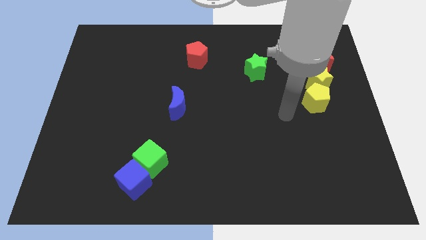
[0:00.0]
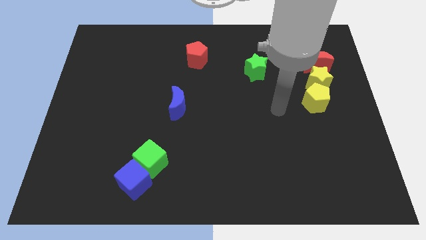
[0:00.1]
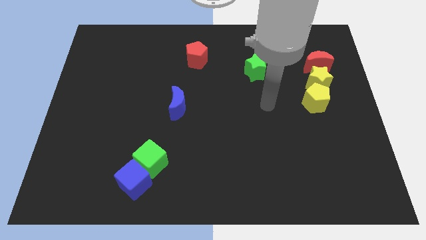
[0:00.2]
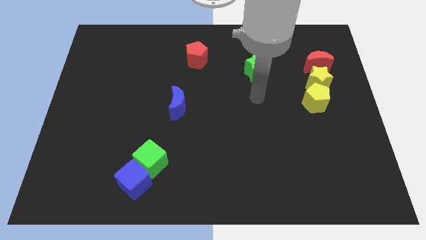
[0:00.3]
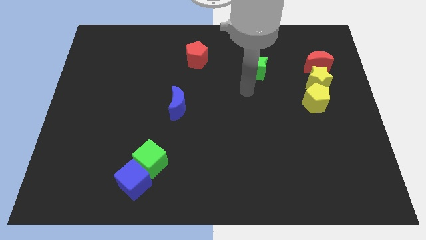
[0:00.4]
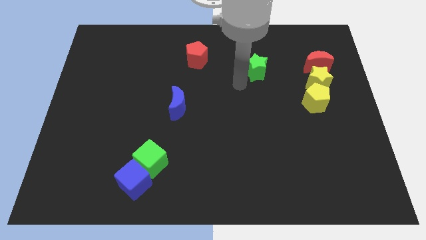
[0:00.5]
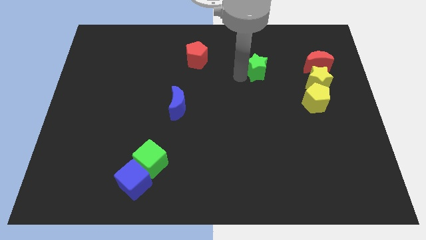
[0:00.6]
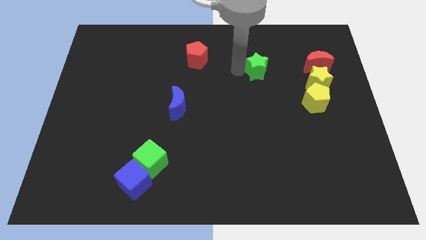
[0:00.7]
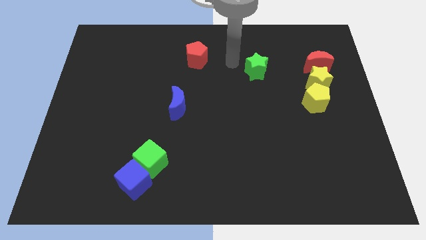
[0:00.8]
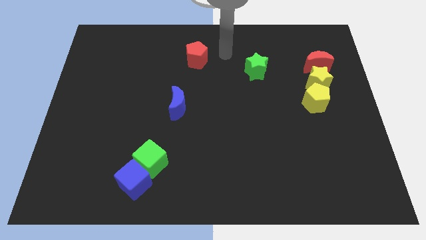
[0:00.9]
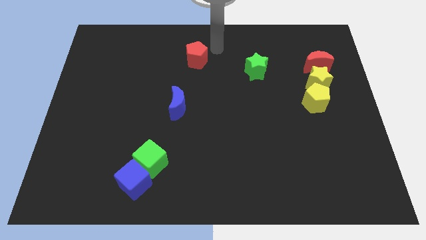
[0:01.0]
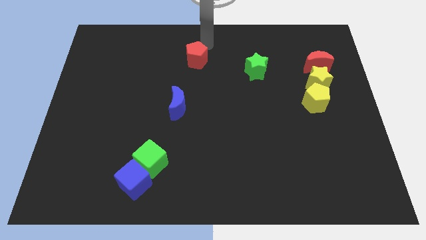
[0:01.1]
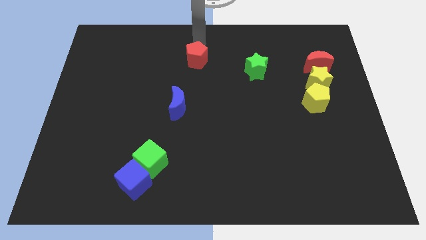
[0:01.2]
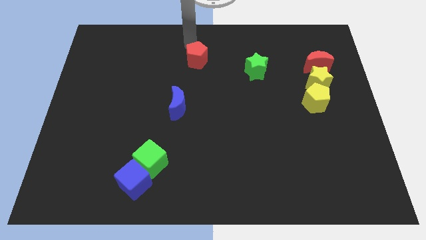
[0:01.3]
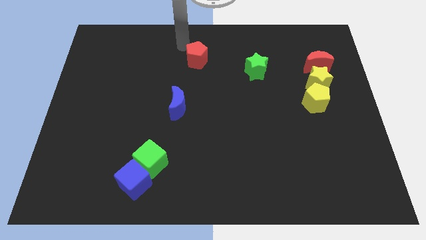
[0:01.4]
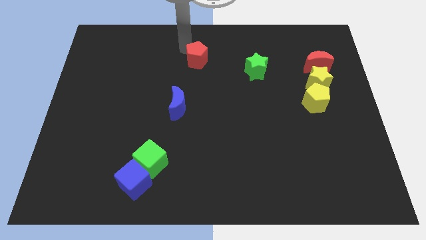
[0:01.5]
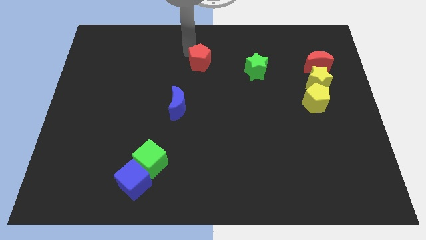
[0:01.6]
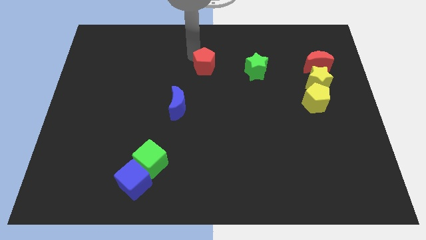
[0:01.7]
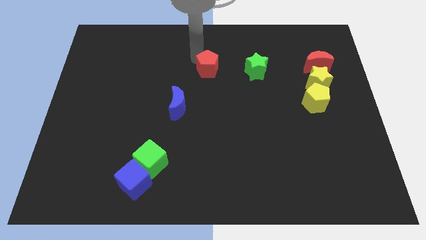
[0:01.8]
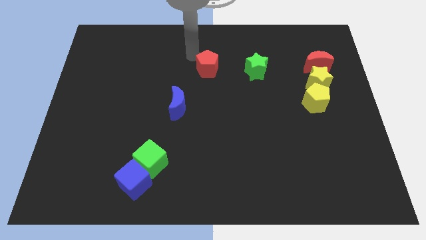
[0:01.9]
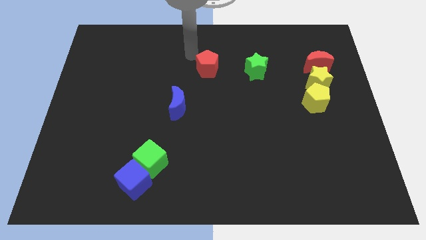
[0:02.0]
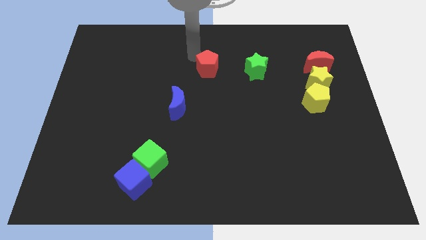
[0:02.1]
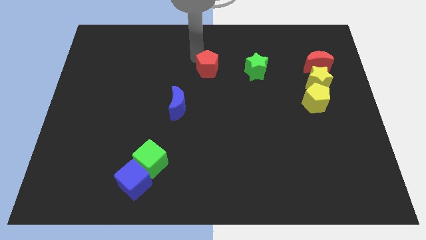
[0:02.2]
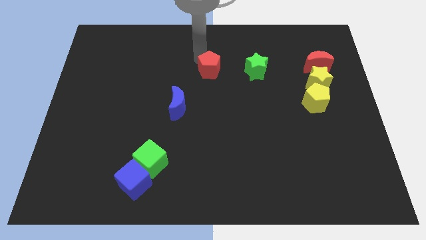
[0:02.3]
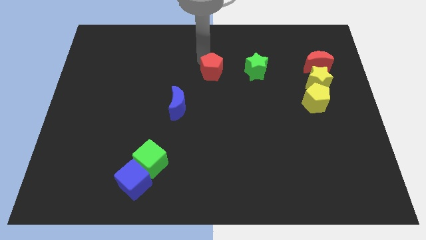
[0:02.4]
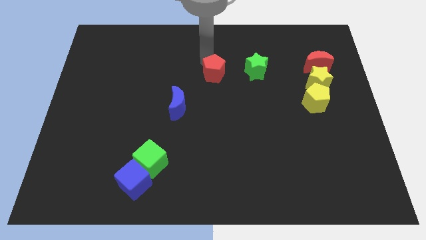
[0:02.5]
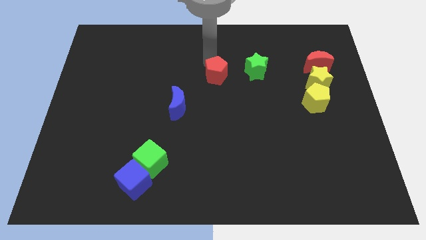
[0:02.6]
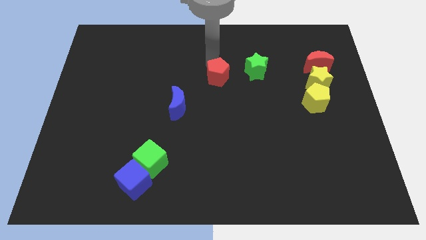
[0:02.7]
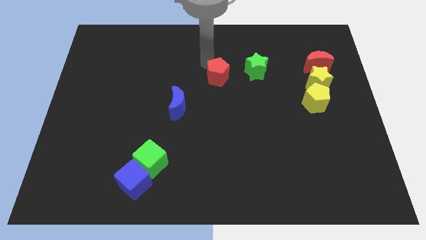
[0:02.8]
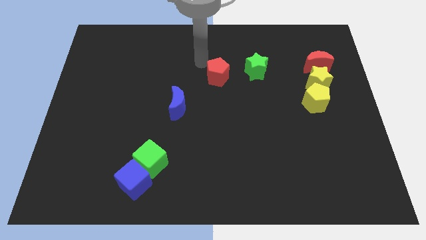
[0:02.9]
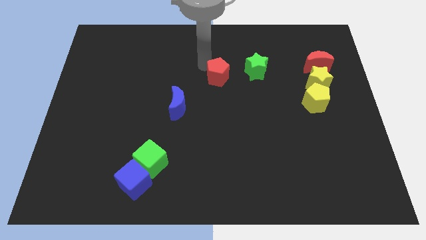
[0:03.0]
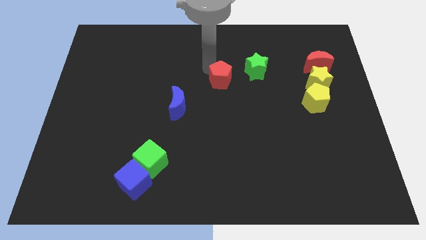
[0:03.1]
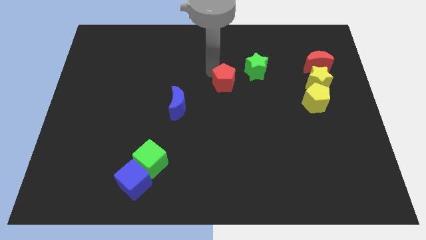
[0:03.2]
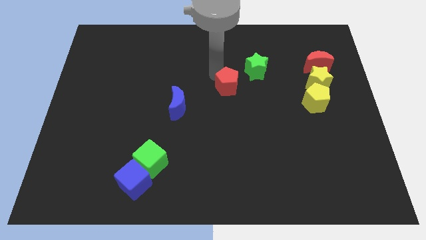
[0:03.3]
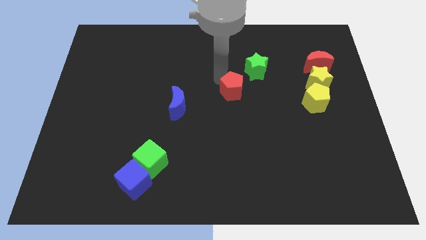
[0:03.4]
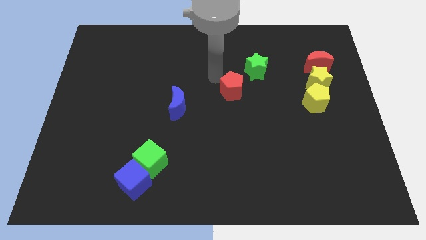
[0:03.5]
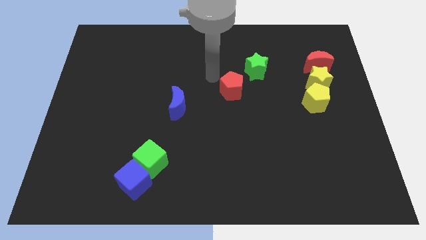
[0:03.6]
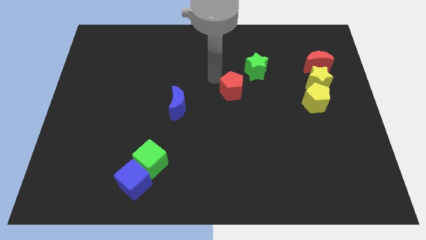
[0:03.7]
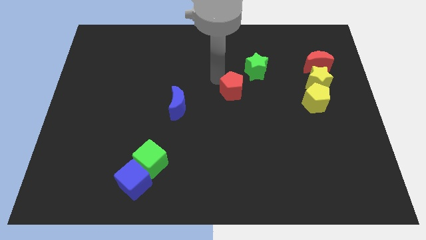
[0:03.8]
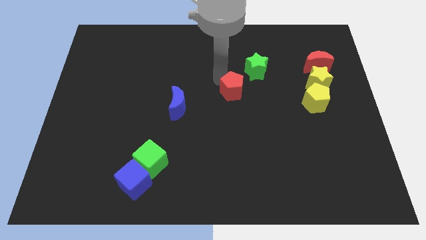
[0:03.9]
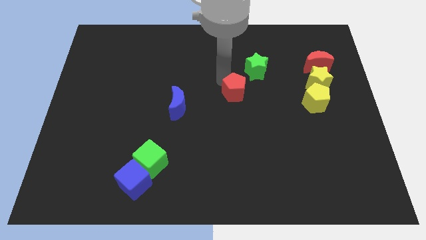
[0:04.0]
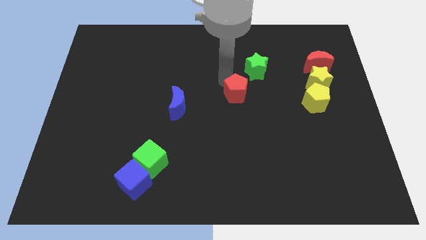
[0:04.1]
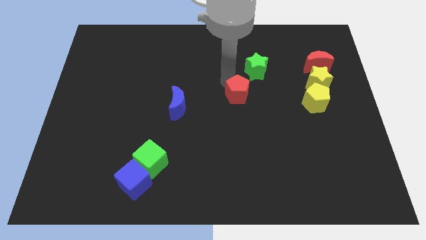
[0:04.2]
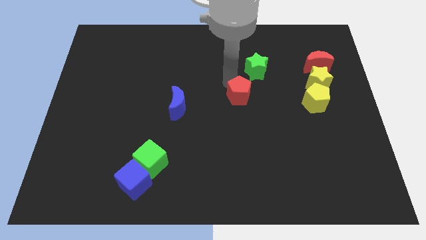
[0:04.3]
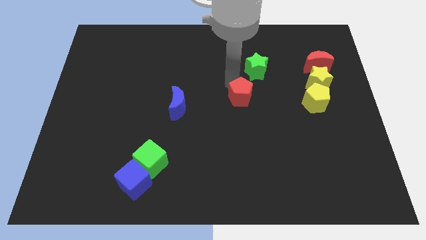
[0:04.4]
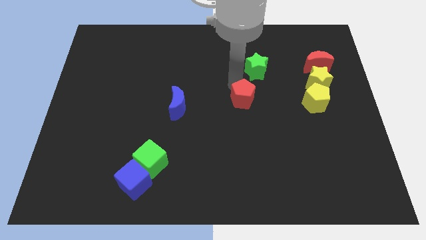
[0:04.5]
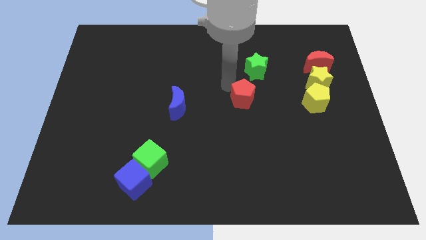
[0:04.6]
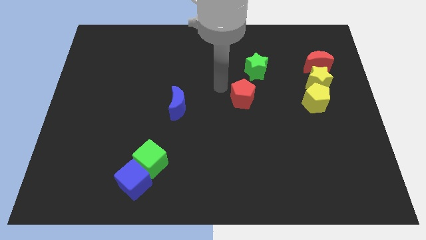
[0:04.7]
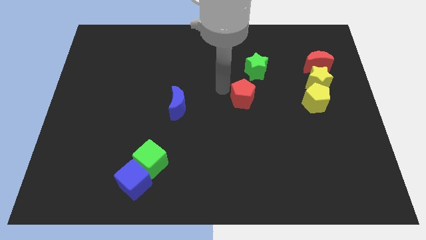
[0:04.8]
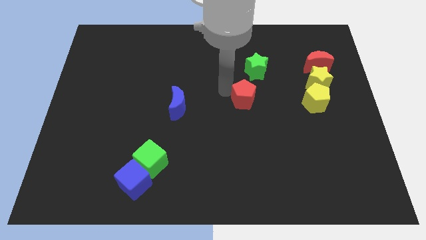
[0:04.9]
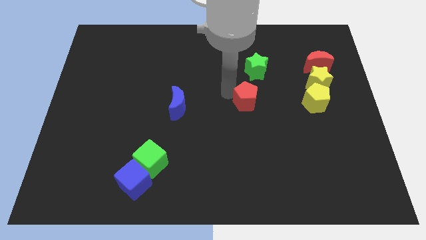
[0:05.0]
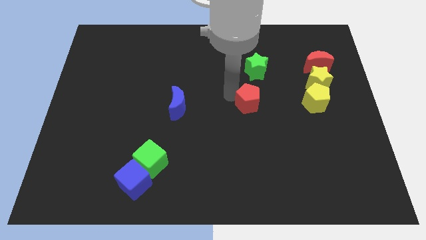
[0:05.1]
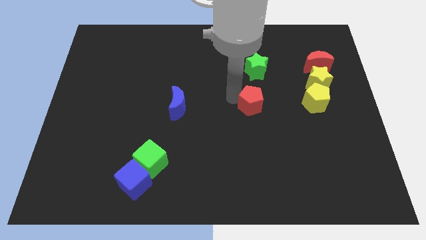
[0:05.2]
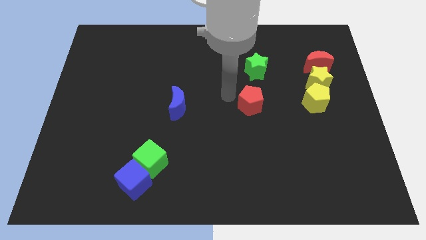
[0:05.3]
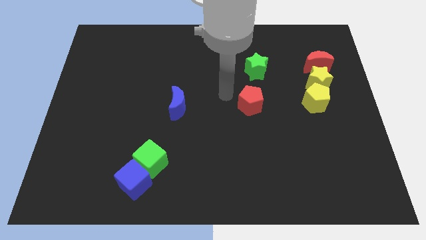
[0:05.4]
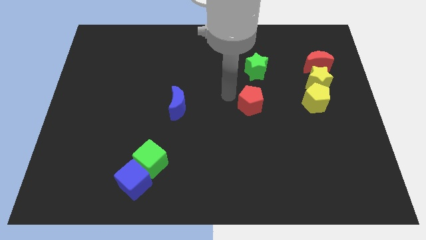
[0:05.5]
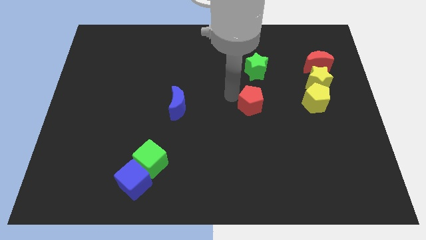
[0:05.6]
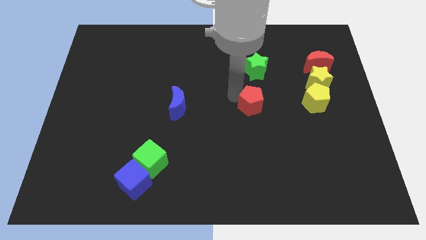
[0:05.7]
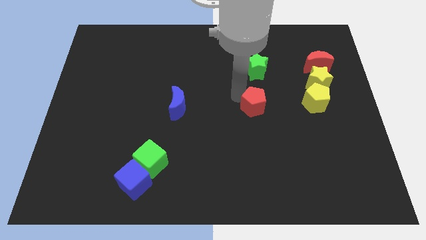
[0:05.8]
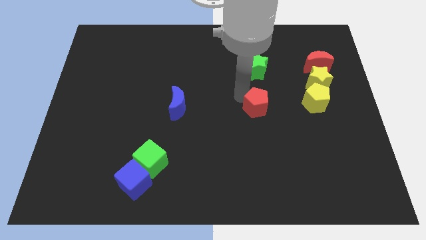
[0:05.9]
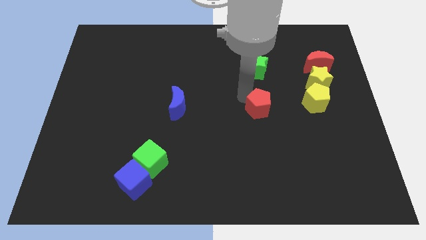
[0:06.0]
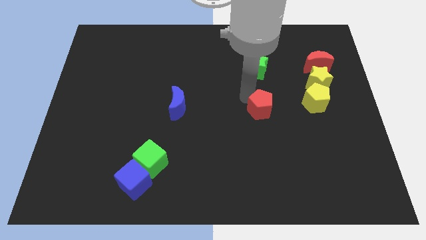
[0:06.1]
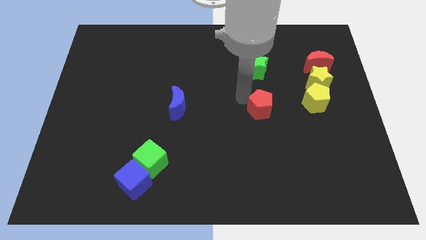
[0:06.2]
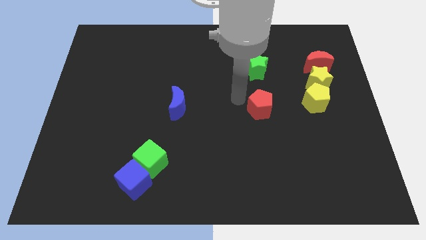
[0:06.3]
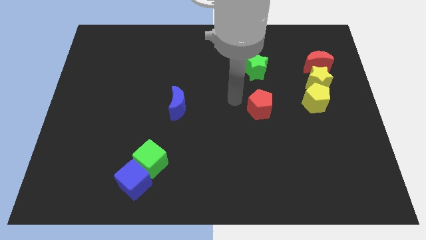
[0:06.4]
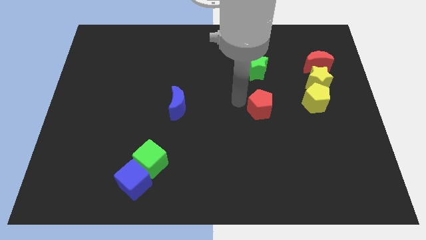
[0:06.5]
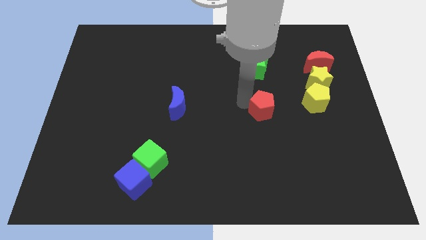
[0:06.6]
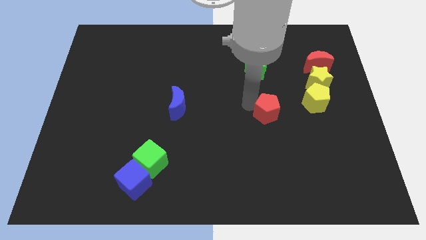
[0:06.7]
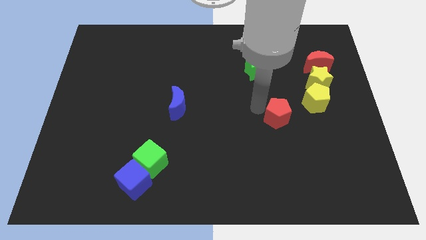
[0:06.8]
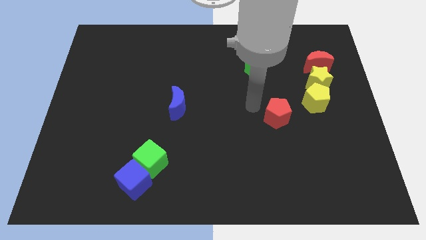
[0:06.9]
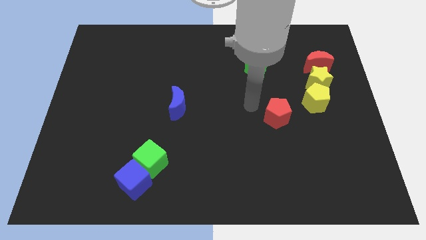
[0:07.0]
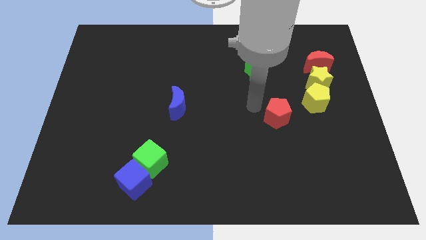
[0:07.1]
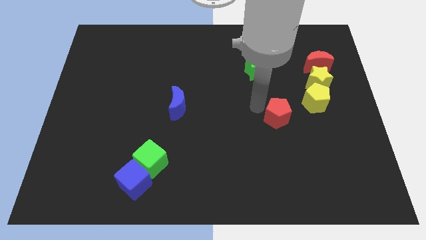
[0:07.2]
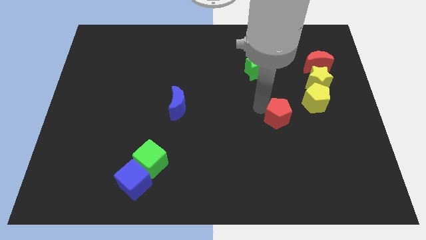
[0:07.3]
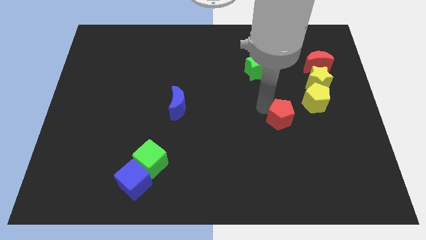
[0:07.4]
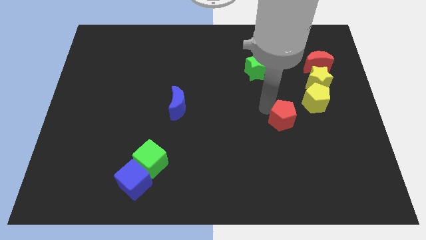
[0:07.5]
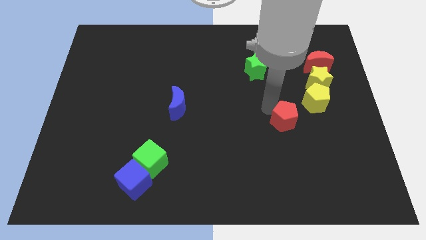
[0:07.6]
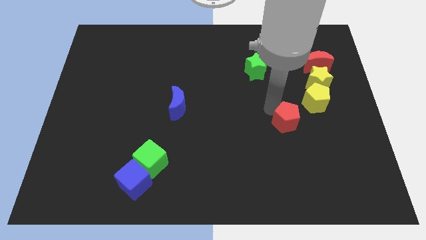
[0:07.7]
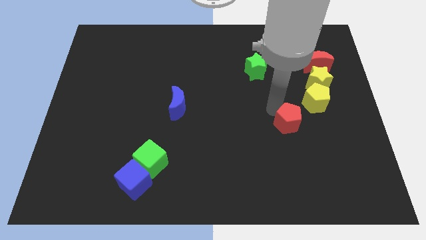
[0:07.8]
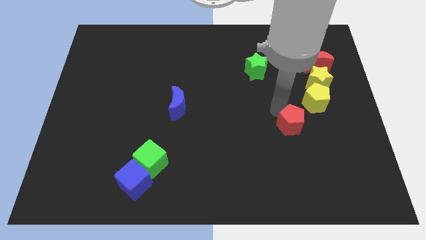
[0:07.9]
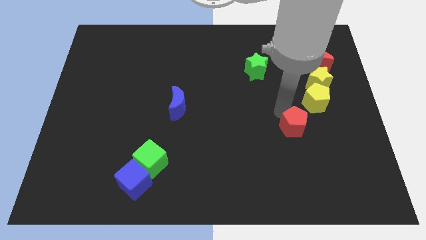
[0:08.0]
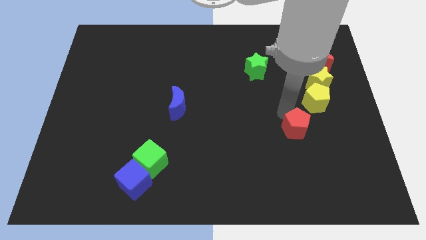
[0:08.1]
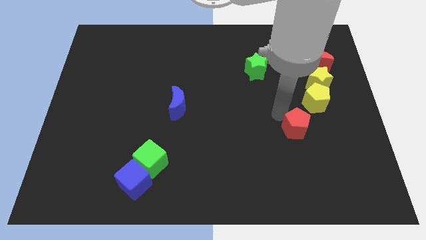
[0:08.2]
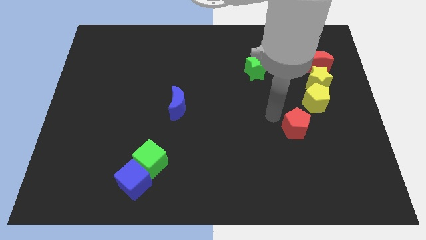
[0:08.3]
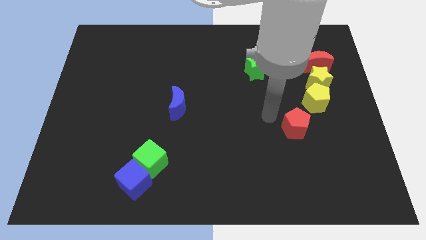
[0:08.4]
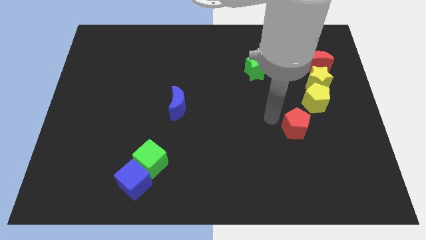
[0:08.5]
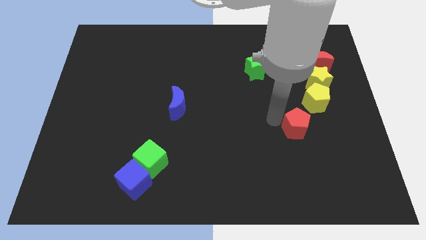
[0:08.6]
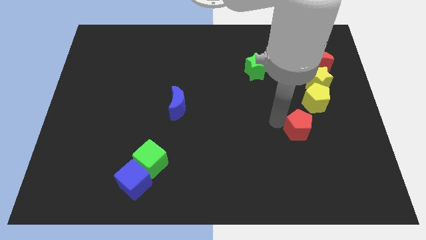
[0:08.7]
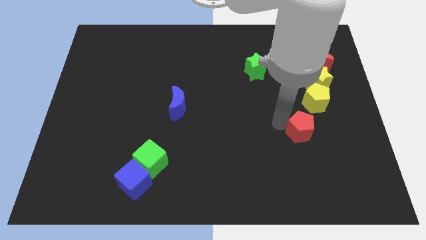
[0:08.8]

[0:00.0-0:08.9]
move the red pentagon to the bottom of the yellow pentagon
